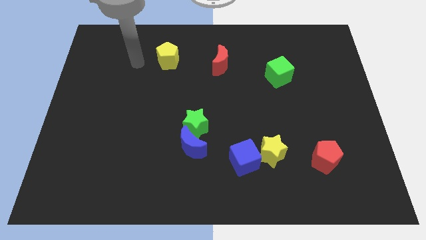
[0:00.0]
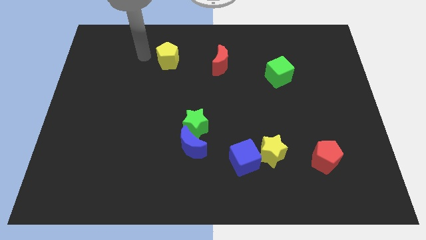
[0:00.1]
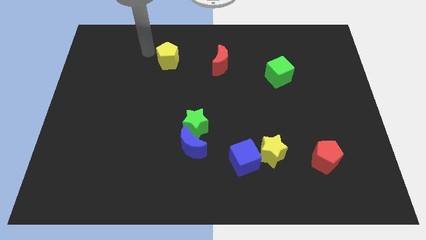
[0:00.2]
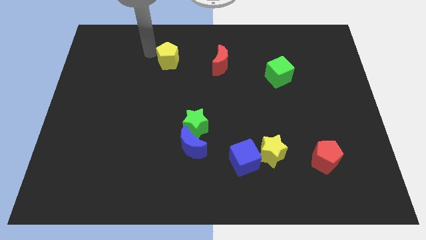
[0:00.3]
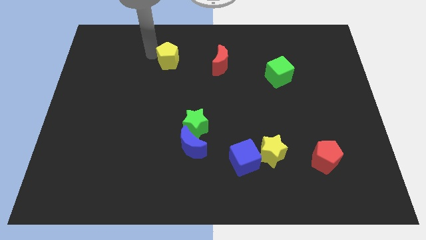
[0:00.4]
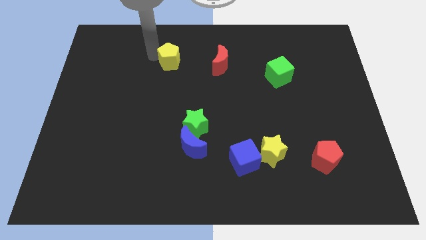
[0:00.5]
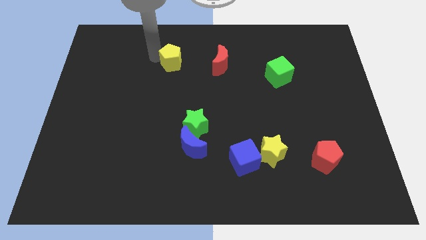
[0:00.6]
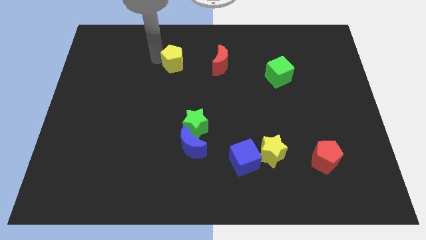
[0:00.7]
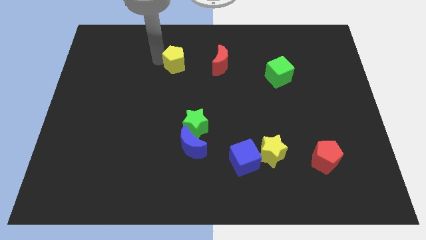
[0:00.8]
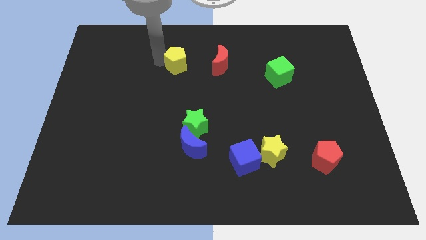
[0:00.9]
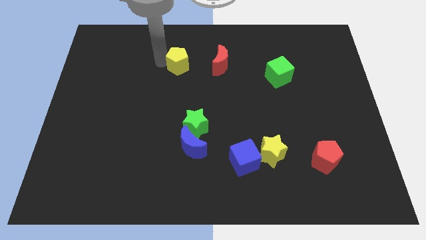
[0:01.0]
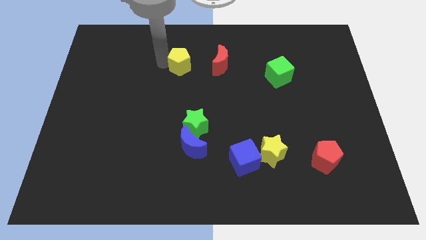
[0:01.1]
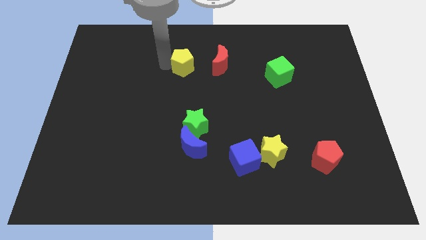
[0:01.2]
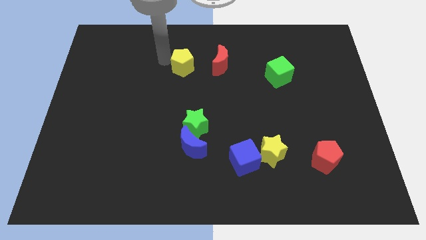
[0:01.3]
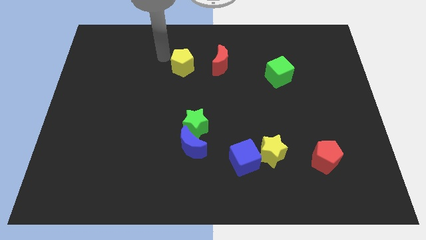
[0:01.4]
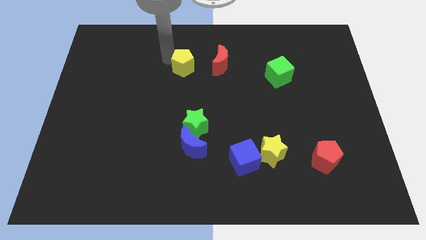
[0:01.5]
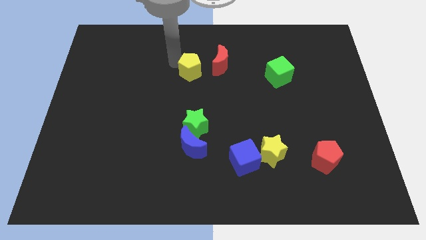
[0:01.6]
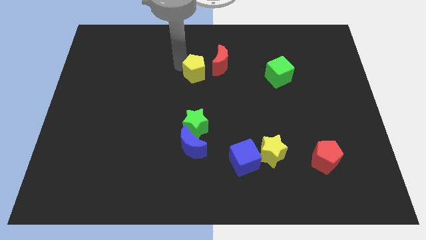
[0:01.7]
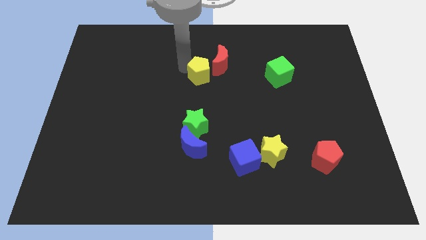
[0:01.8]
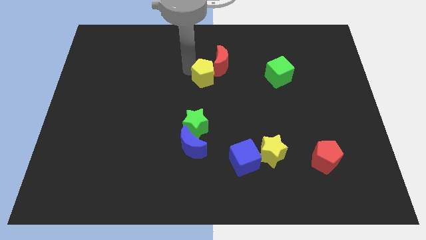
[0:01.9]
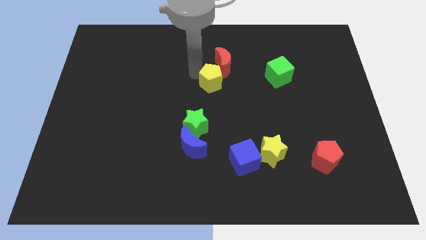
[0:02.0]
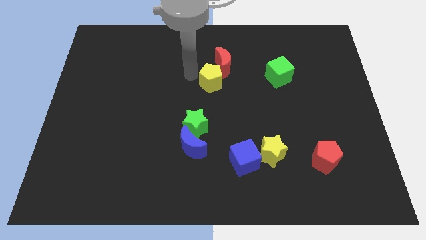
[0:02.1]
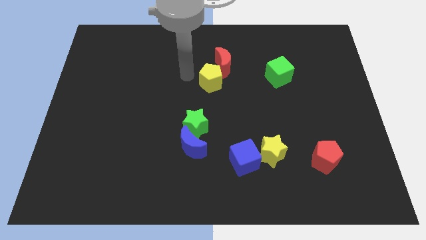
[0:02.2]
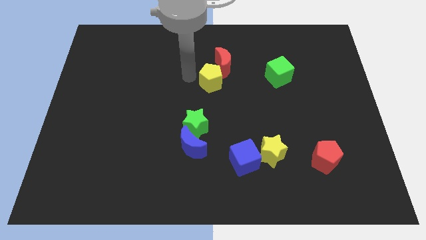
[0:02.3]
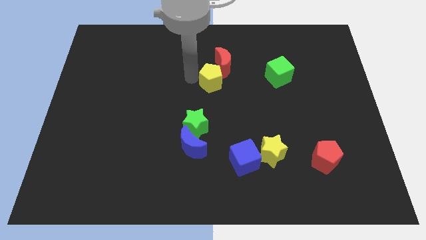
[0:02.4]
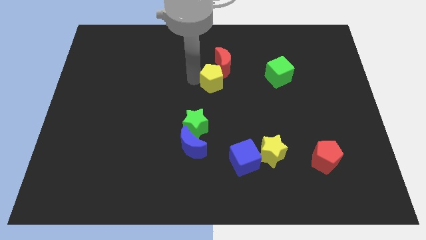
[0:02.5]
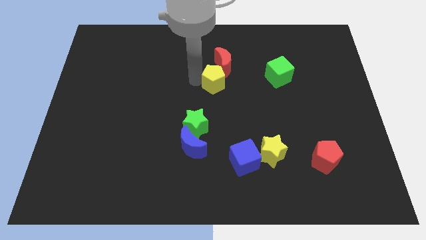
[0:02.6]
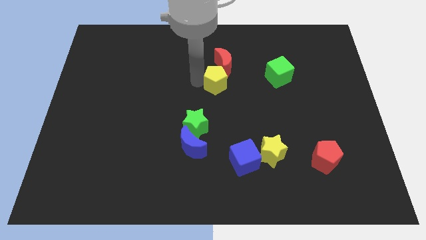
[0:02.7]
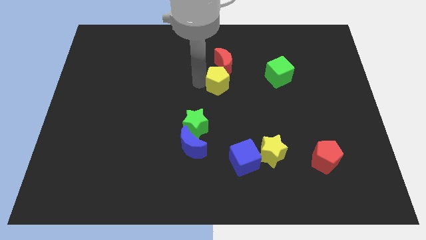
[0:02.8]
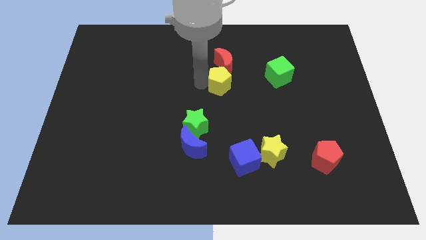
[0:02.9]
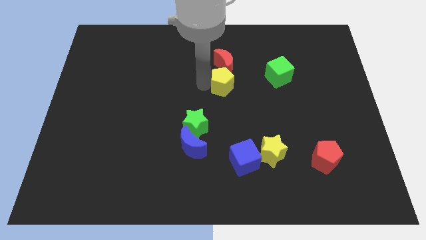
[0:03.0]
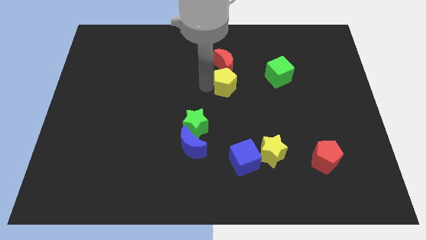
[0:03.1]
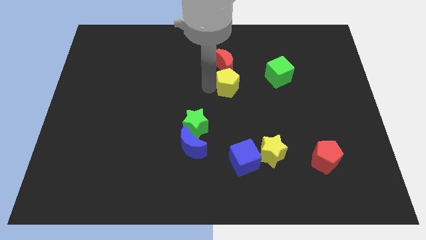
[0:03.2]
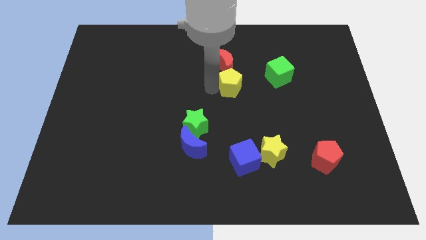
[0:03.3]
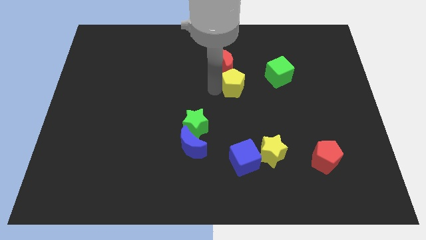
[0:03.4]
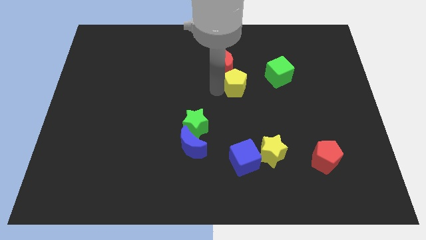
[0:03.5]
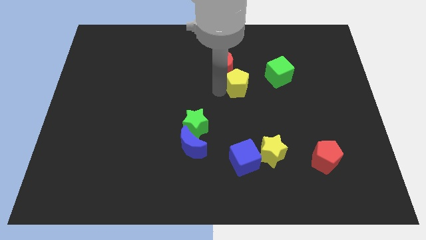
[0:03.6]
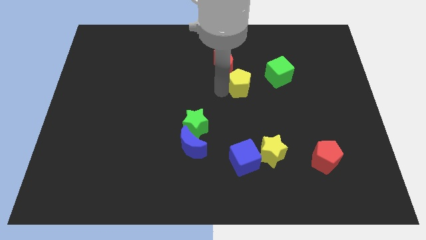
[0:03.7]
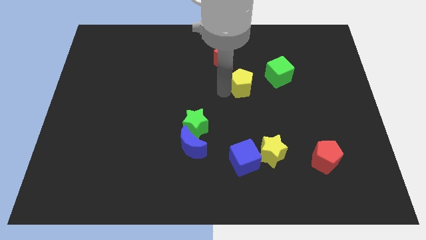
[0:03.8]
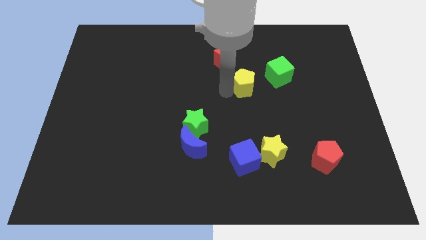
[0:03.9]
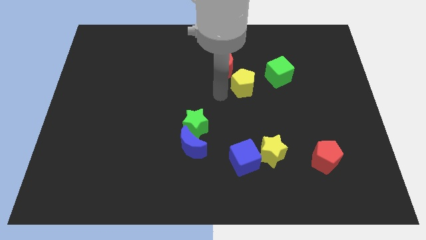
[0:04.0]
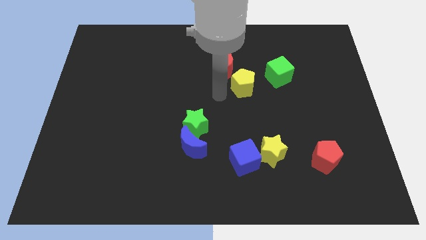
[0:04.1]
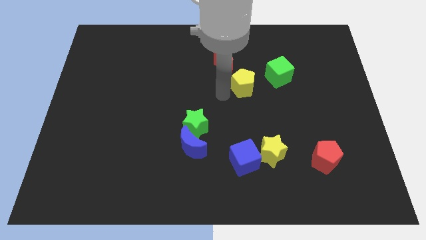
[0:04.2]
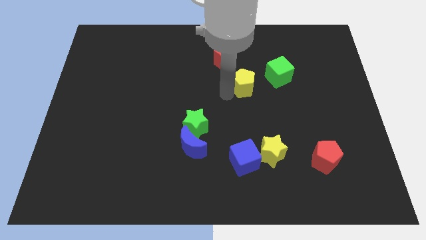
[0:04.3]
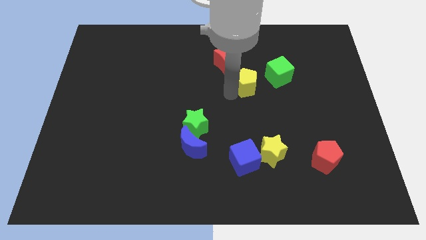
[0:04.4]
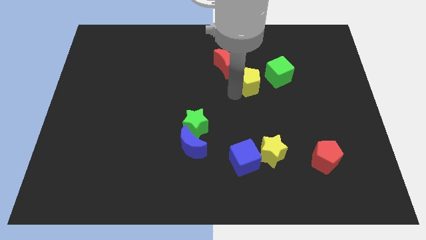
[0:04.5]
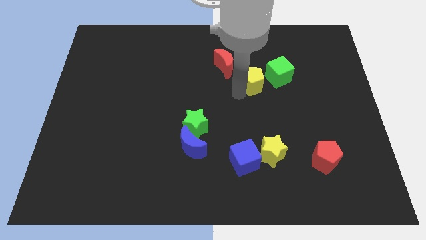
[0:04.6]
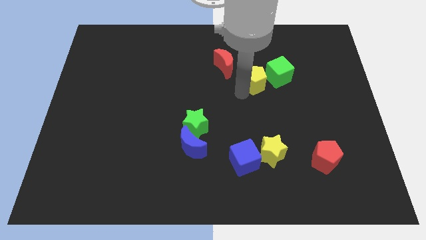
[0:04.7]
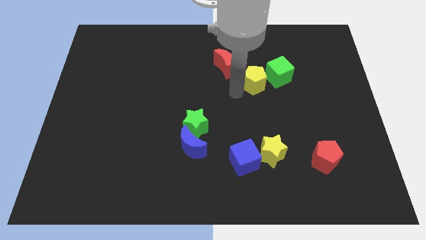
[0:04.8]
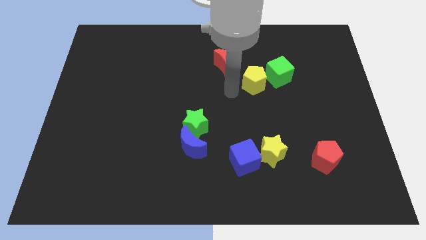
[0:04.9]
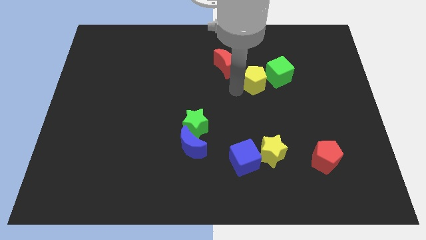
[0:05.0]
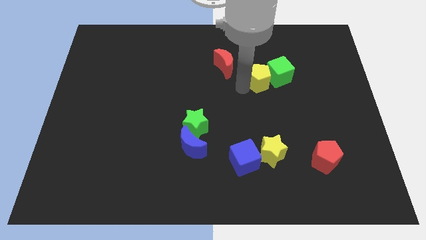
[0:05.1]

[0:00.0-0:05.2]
push the yellow pentagon close to the green cube

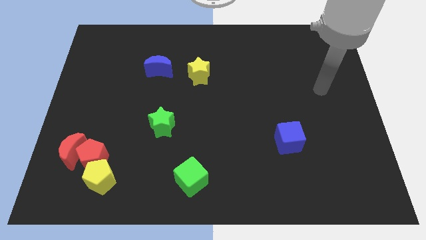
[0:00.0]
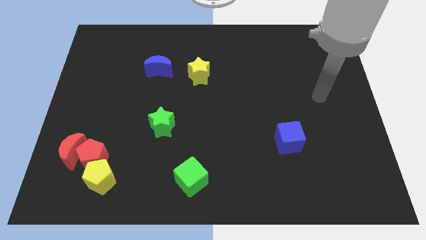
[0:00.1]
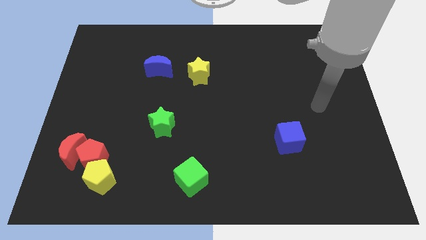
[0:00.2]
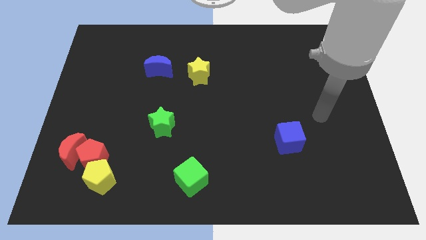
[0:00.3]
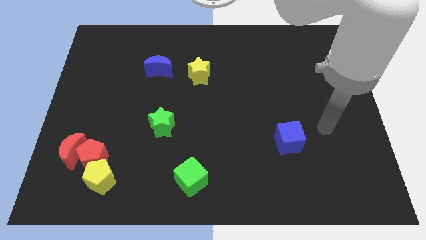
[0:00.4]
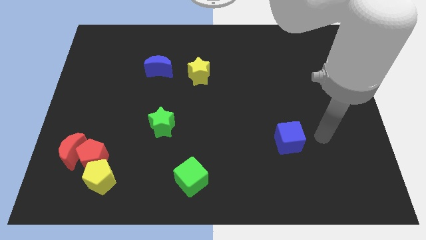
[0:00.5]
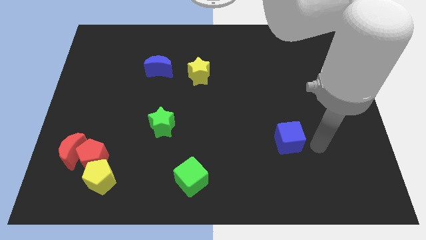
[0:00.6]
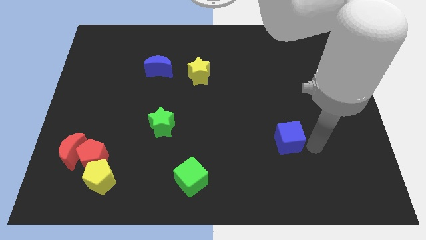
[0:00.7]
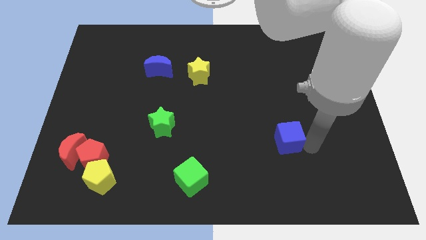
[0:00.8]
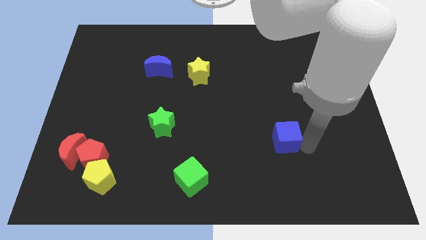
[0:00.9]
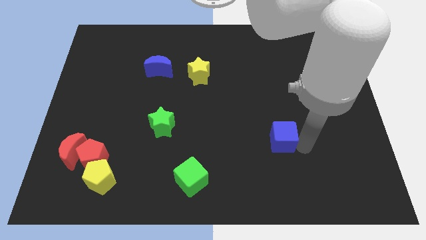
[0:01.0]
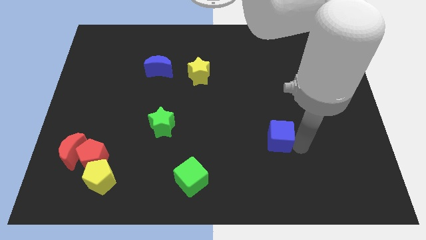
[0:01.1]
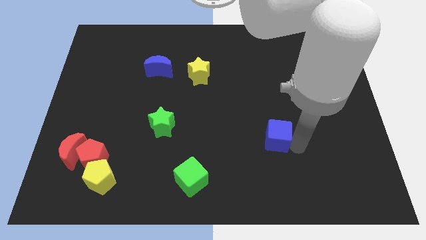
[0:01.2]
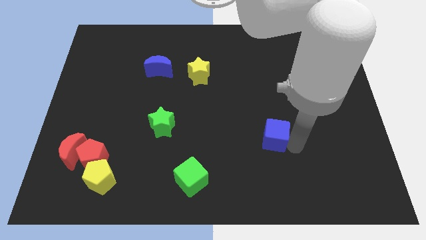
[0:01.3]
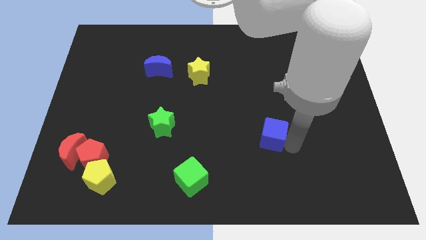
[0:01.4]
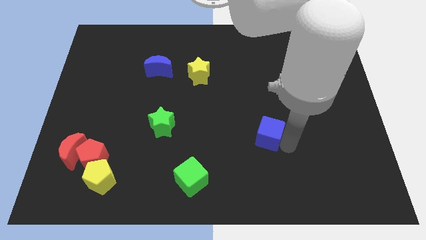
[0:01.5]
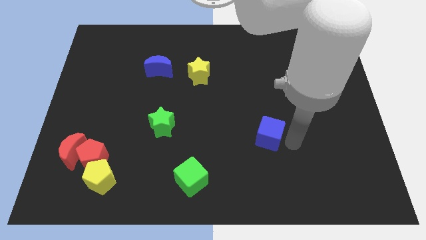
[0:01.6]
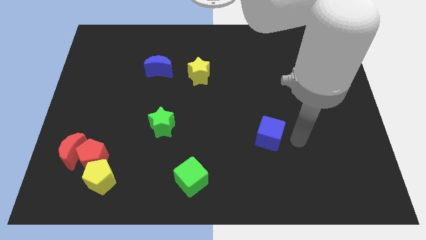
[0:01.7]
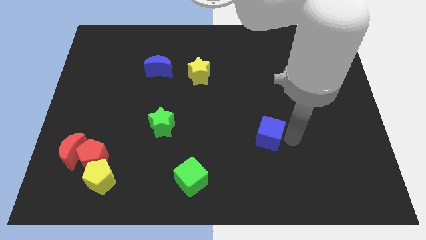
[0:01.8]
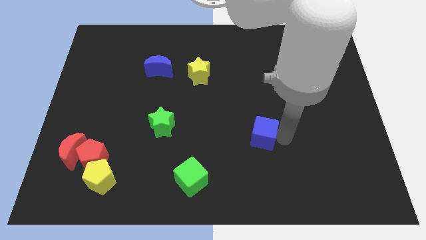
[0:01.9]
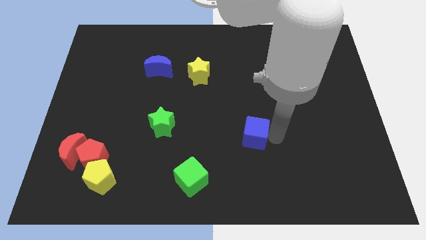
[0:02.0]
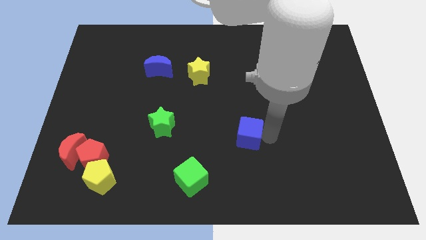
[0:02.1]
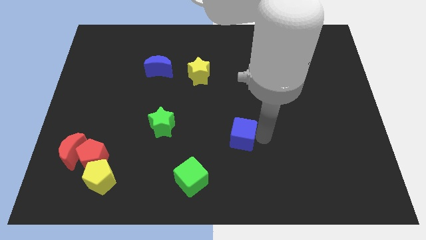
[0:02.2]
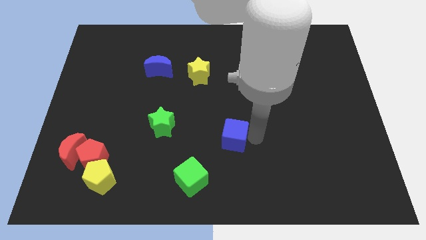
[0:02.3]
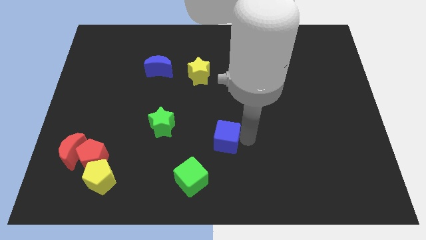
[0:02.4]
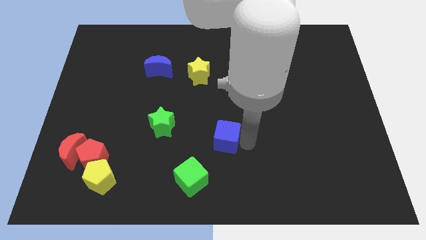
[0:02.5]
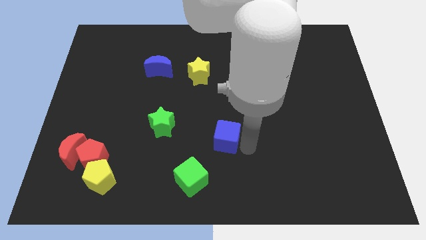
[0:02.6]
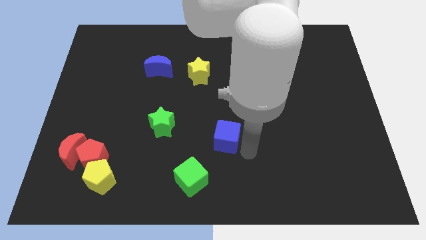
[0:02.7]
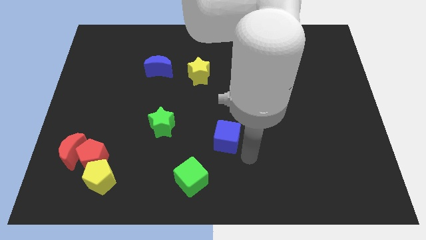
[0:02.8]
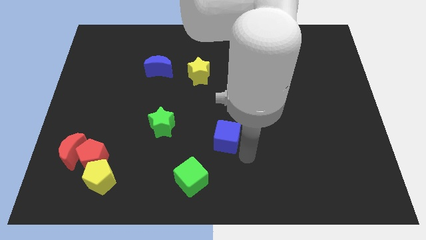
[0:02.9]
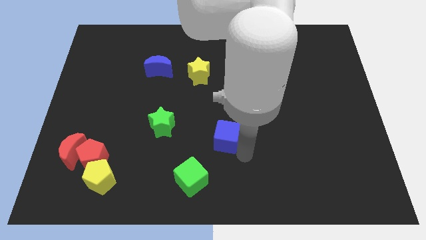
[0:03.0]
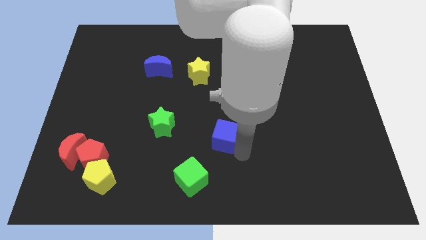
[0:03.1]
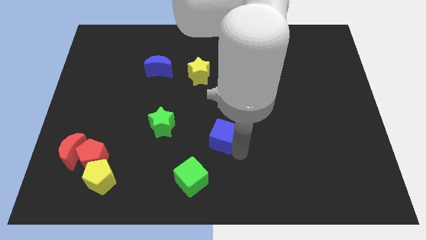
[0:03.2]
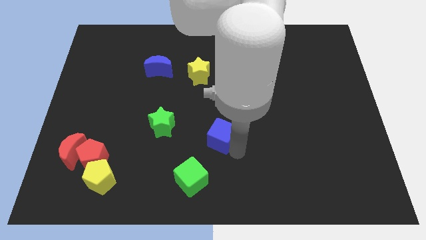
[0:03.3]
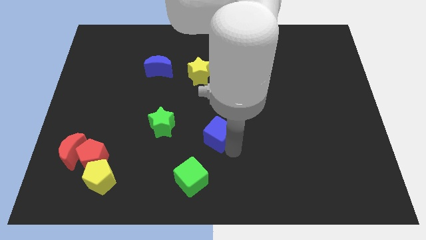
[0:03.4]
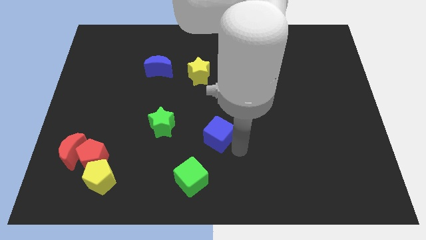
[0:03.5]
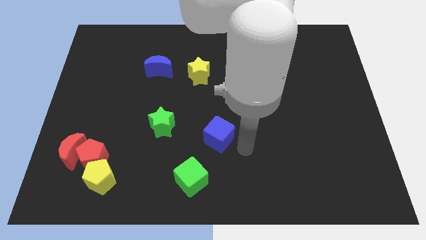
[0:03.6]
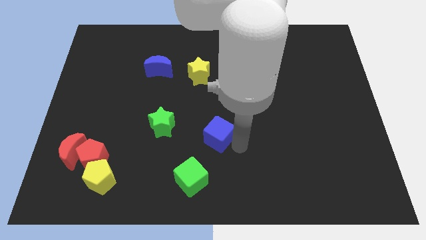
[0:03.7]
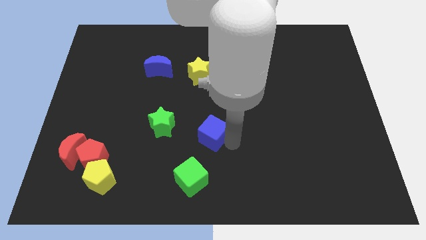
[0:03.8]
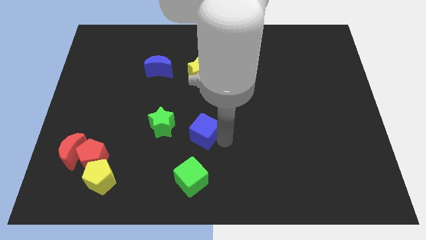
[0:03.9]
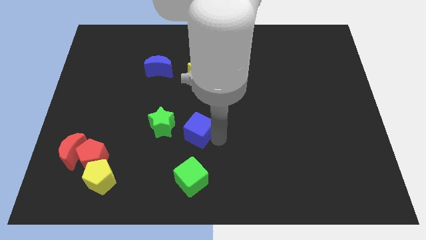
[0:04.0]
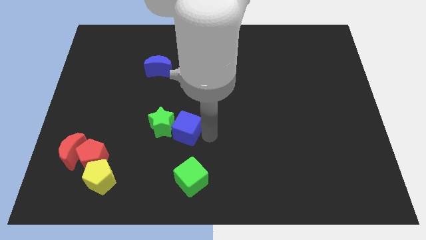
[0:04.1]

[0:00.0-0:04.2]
push the blue cube next to the green star
